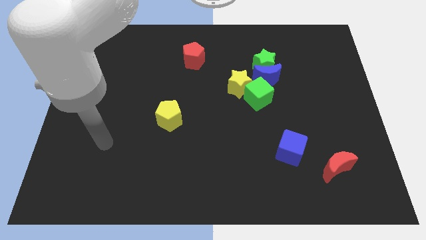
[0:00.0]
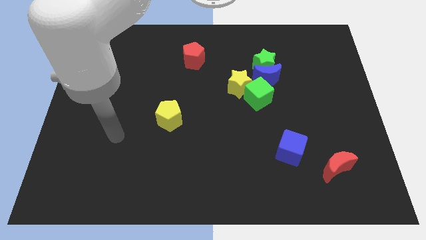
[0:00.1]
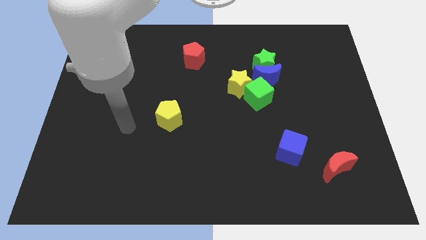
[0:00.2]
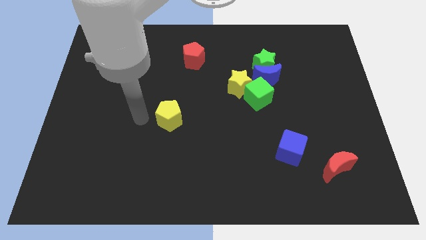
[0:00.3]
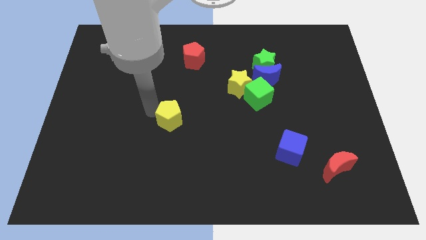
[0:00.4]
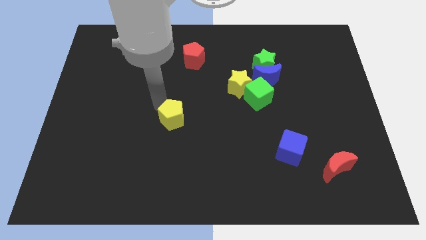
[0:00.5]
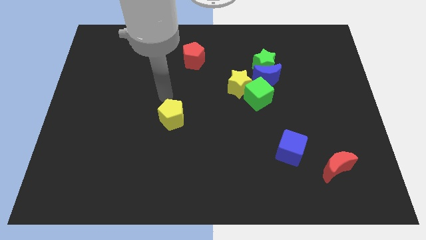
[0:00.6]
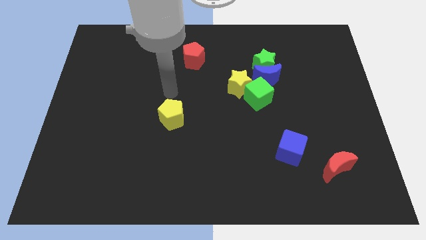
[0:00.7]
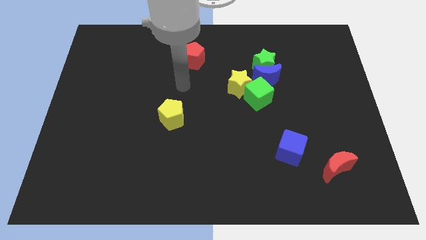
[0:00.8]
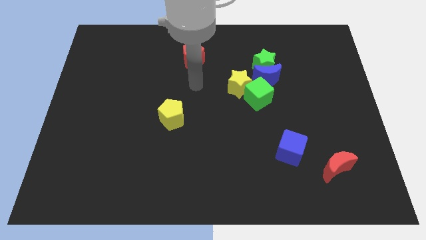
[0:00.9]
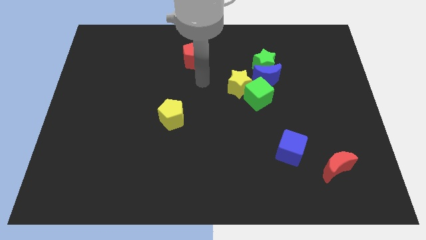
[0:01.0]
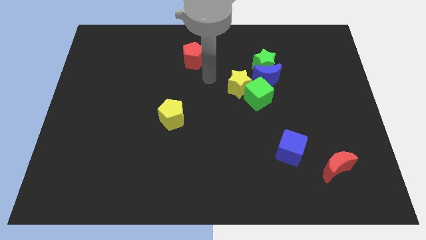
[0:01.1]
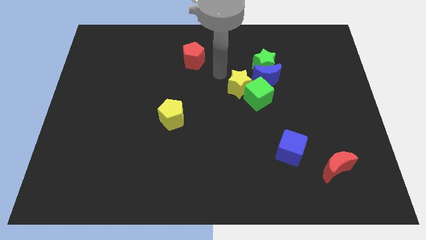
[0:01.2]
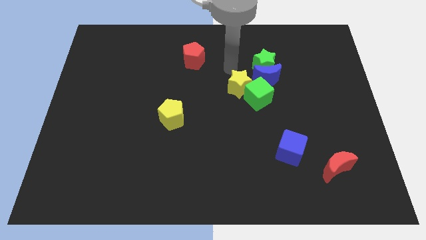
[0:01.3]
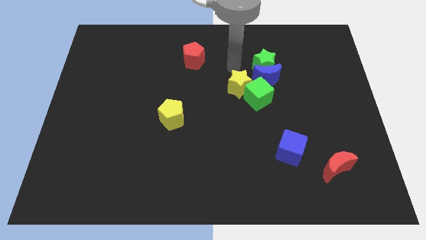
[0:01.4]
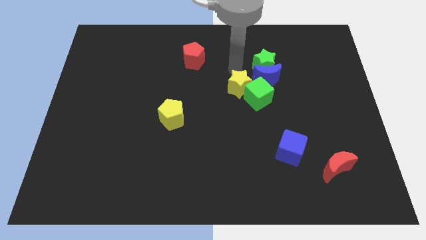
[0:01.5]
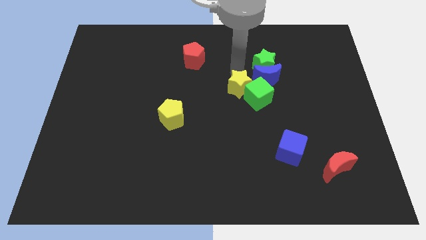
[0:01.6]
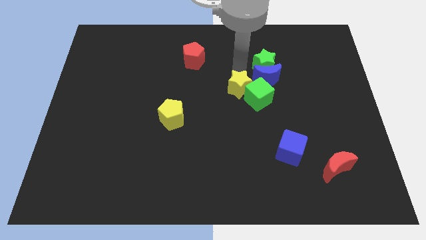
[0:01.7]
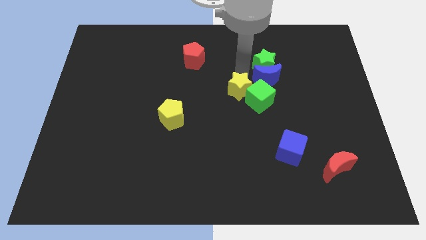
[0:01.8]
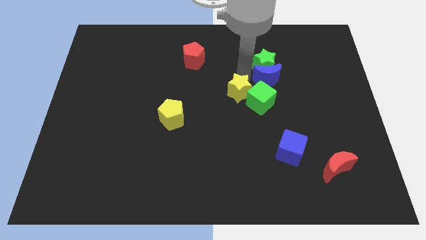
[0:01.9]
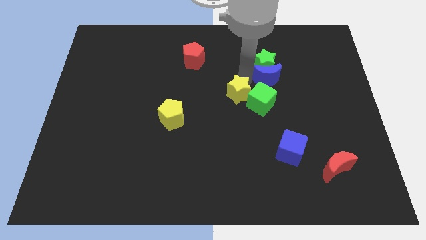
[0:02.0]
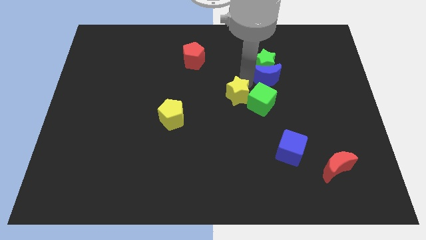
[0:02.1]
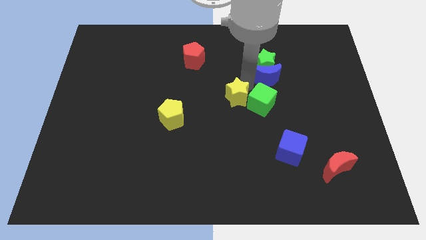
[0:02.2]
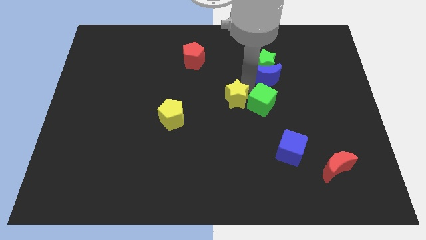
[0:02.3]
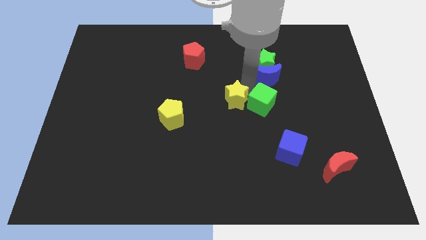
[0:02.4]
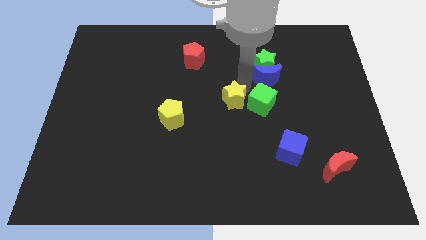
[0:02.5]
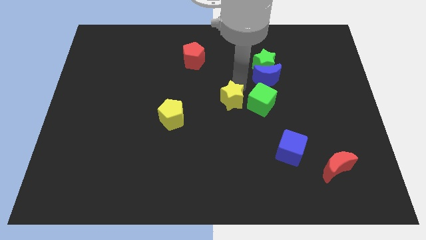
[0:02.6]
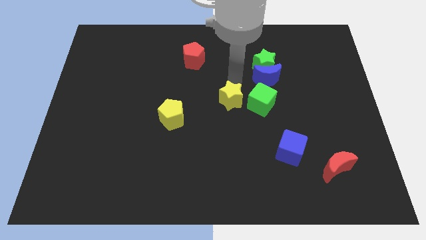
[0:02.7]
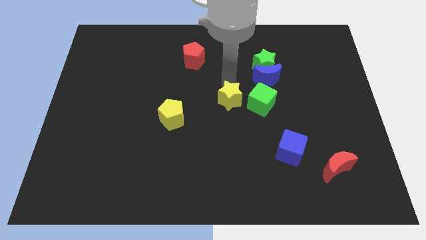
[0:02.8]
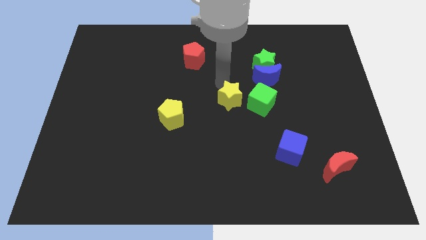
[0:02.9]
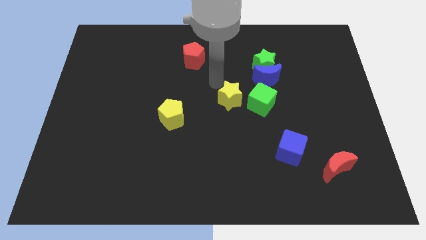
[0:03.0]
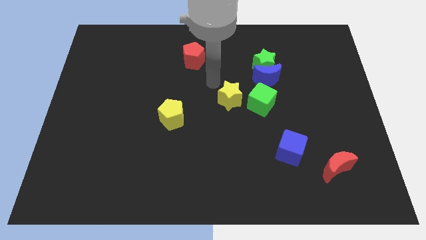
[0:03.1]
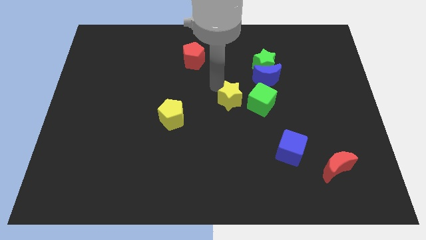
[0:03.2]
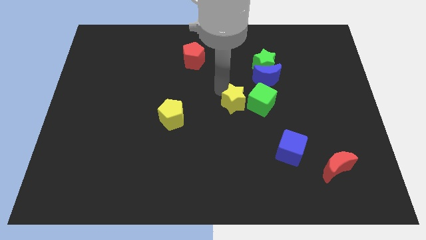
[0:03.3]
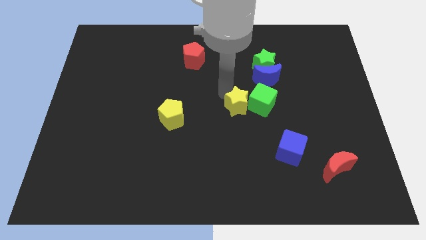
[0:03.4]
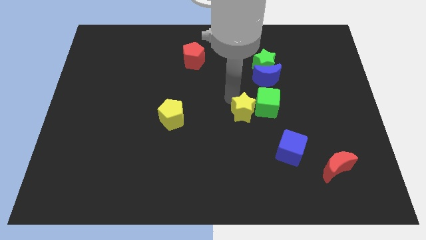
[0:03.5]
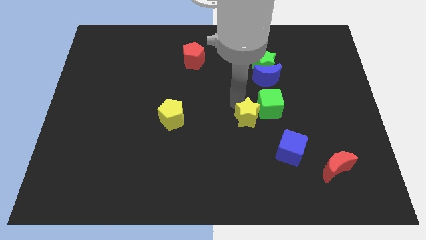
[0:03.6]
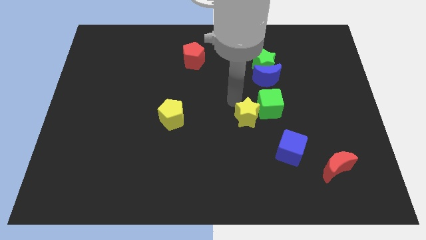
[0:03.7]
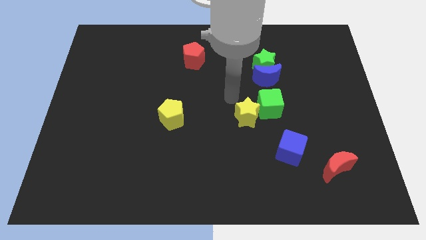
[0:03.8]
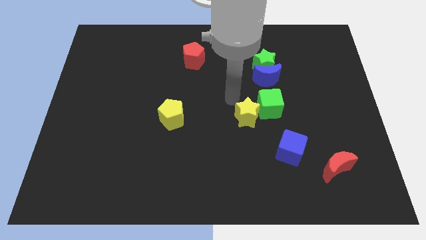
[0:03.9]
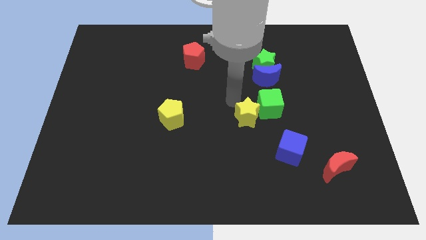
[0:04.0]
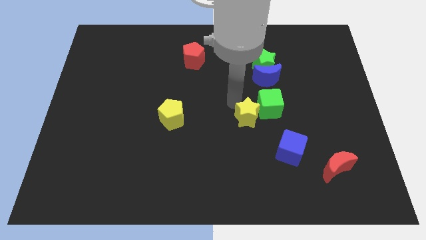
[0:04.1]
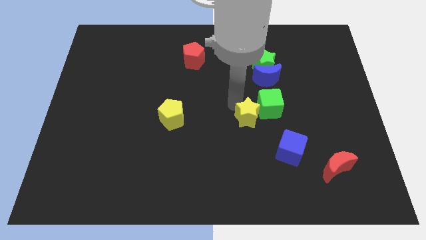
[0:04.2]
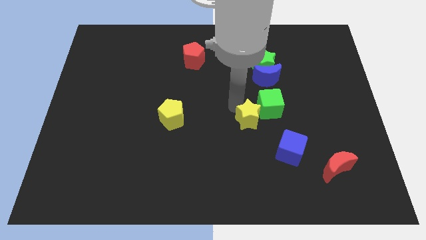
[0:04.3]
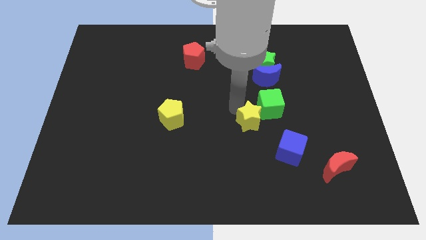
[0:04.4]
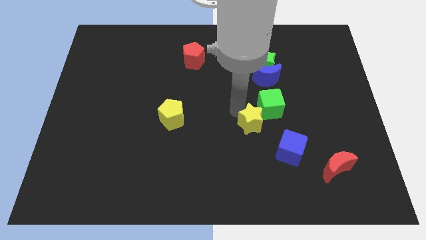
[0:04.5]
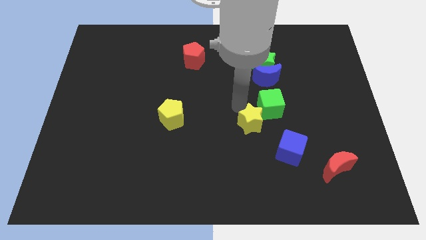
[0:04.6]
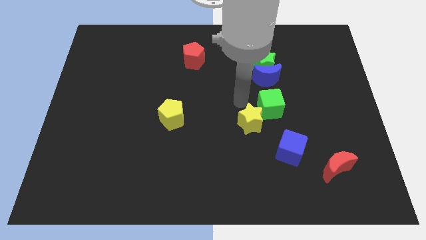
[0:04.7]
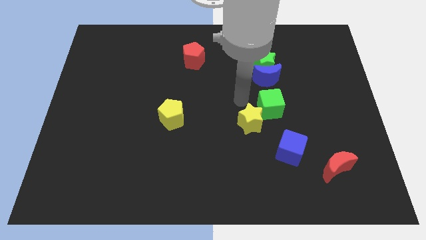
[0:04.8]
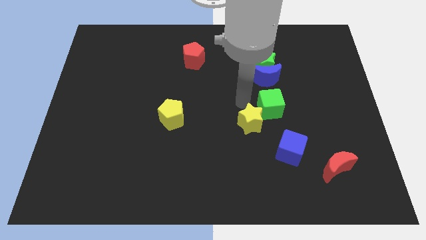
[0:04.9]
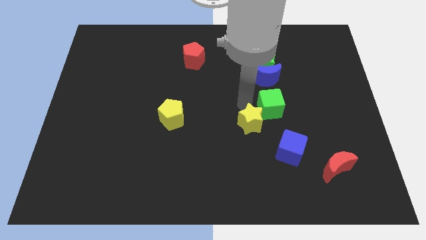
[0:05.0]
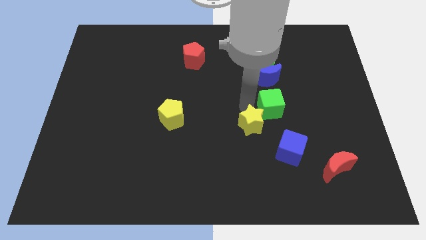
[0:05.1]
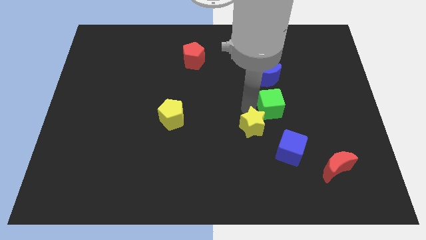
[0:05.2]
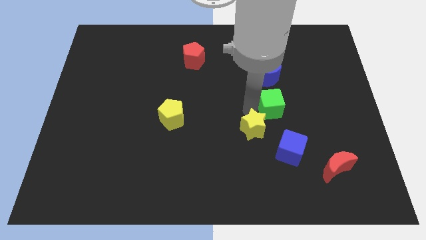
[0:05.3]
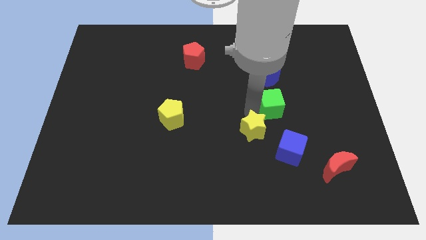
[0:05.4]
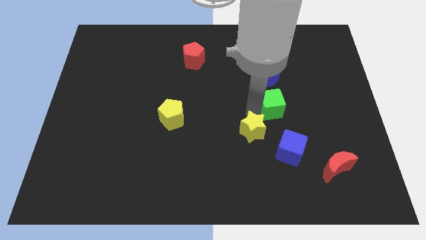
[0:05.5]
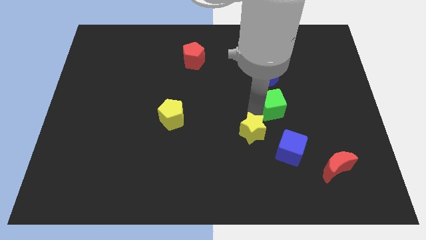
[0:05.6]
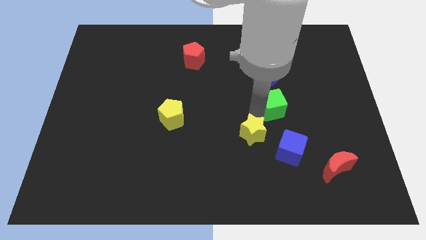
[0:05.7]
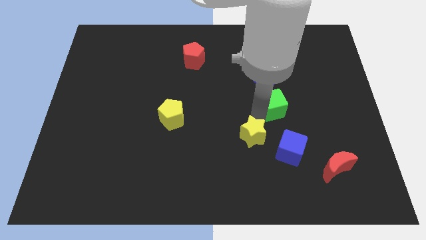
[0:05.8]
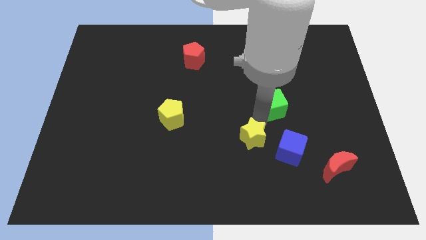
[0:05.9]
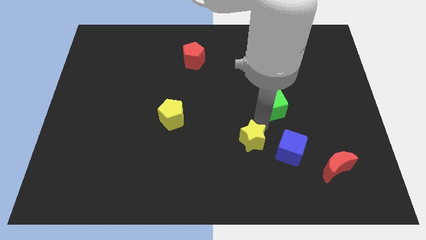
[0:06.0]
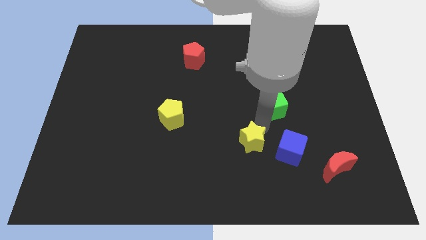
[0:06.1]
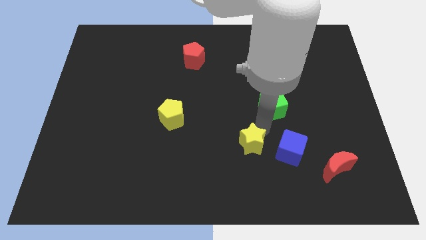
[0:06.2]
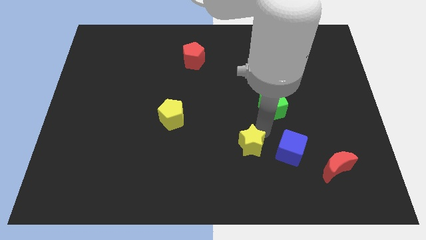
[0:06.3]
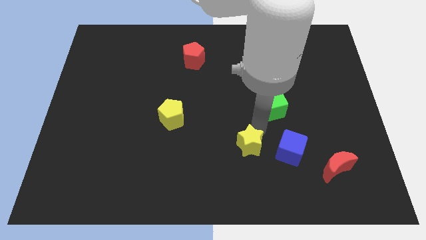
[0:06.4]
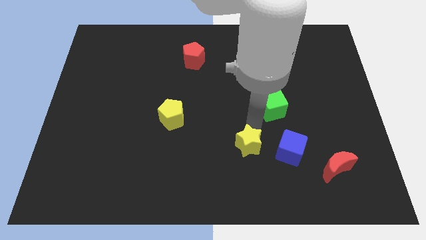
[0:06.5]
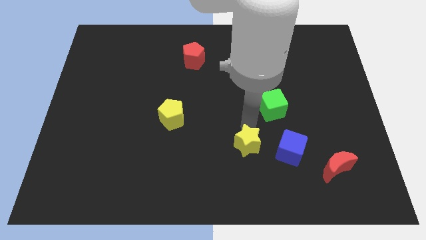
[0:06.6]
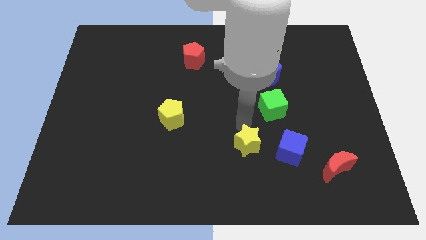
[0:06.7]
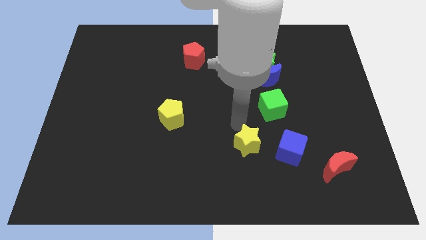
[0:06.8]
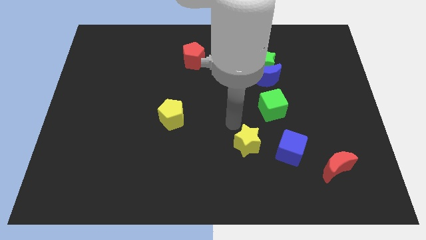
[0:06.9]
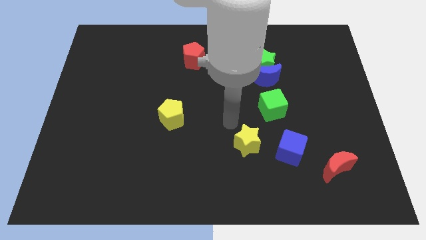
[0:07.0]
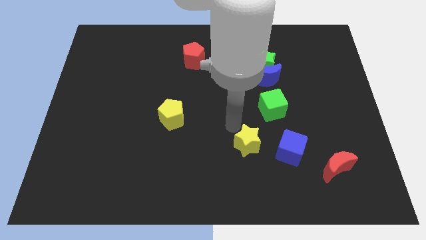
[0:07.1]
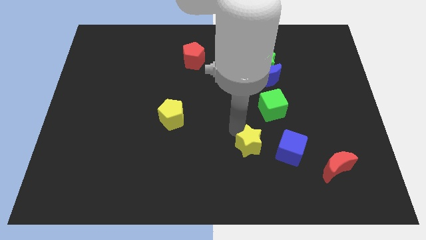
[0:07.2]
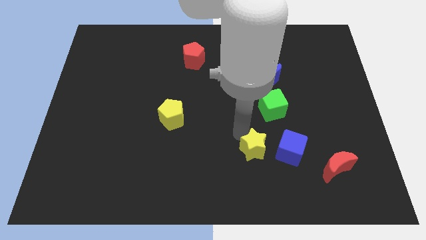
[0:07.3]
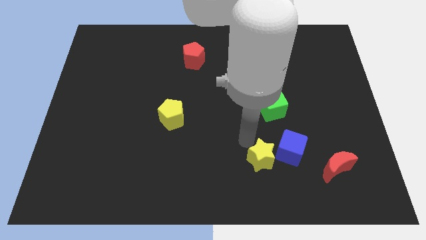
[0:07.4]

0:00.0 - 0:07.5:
push the yellow star to the left side of the red moon

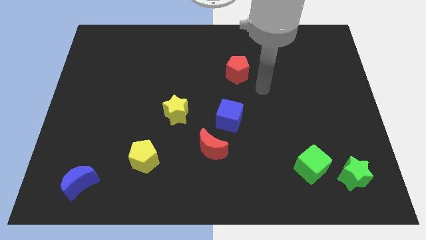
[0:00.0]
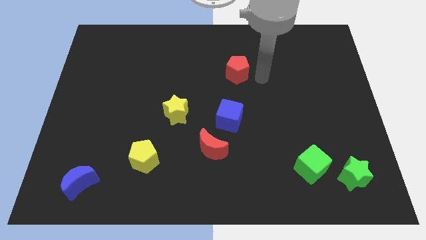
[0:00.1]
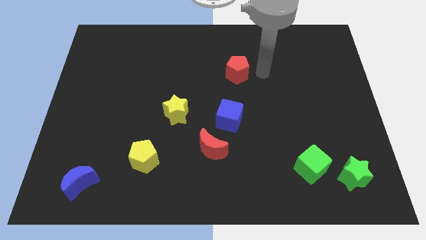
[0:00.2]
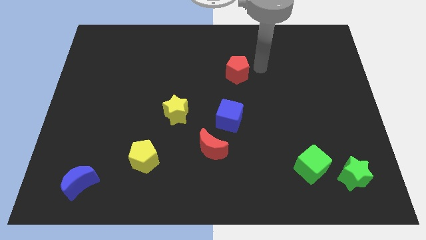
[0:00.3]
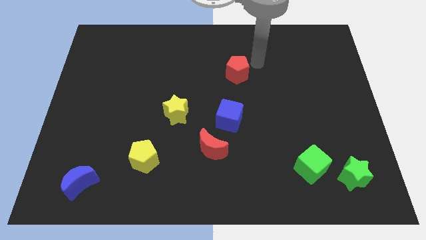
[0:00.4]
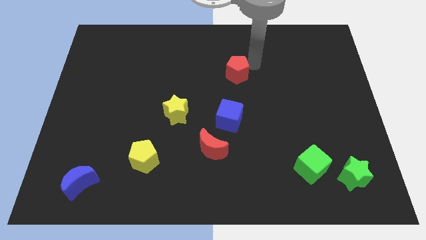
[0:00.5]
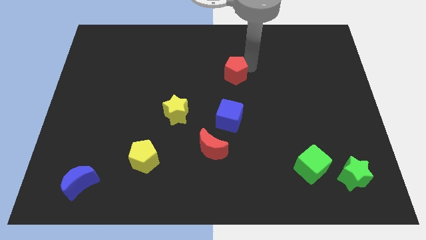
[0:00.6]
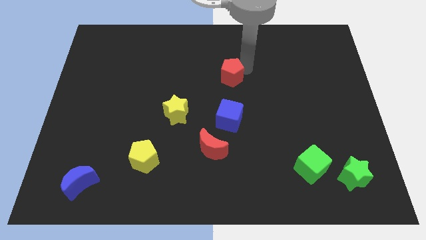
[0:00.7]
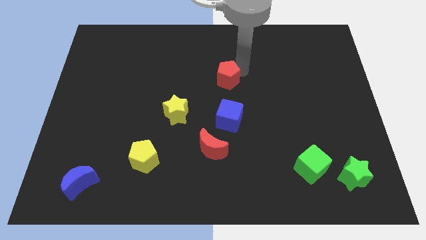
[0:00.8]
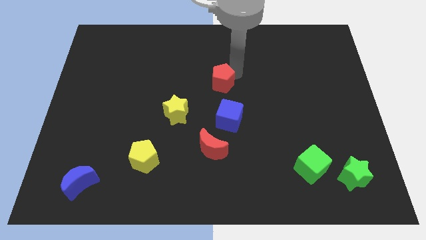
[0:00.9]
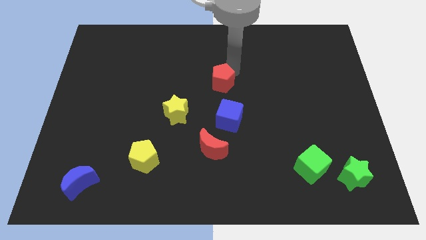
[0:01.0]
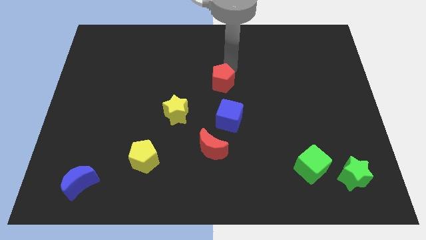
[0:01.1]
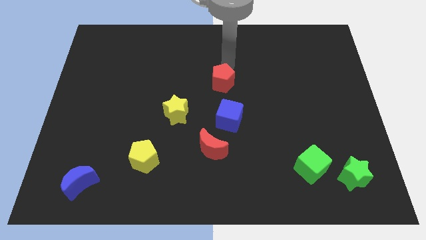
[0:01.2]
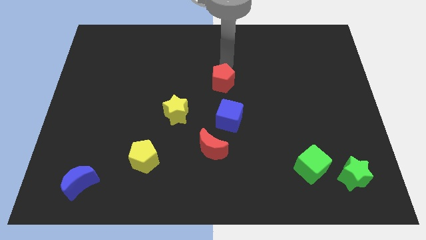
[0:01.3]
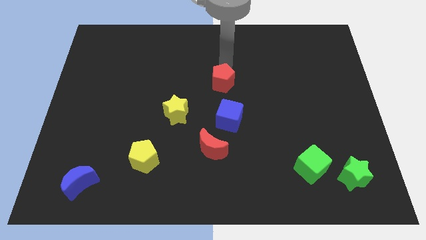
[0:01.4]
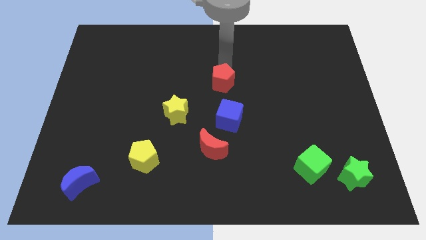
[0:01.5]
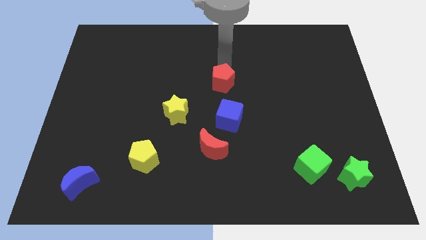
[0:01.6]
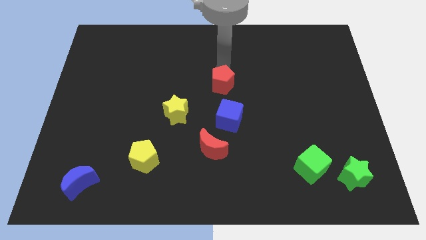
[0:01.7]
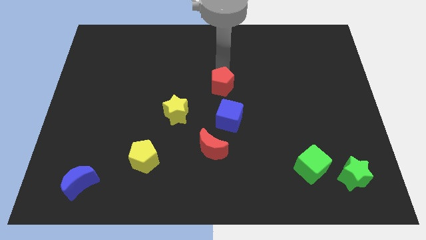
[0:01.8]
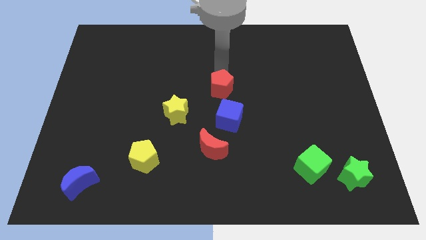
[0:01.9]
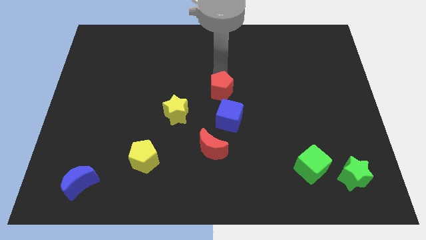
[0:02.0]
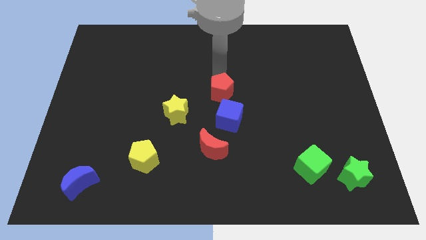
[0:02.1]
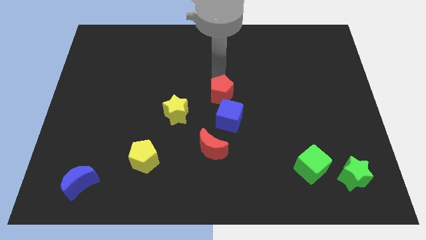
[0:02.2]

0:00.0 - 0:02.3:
slide the red pentagon to the top side of the red moon
